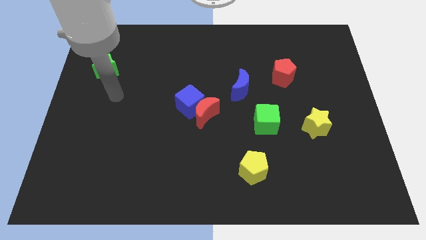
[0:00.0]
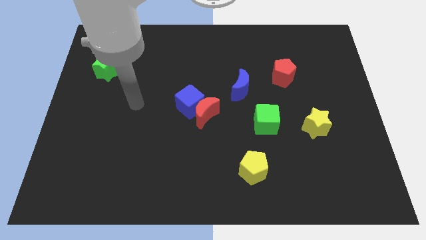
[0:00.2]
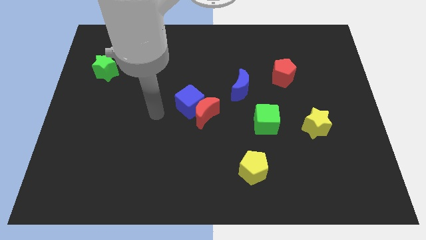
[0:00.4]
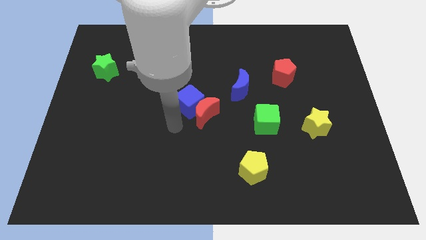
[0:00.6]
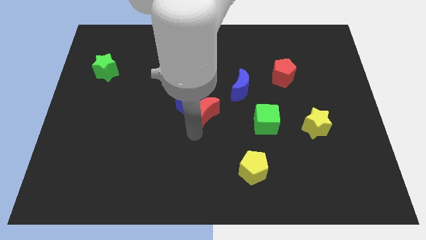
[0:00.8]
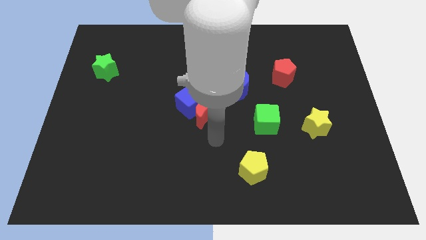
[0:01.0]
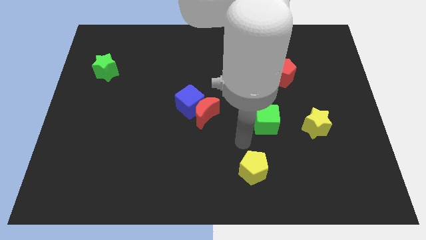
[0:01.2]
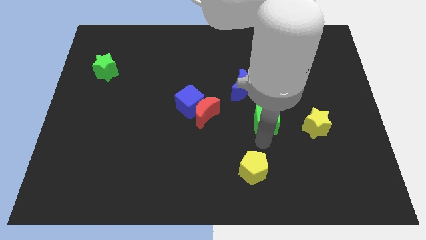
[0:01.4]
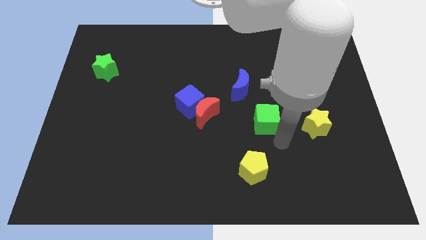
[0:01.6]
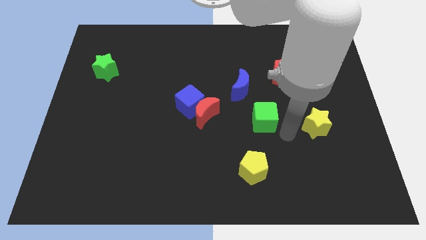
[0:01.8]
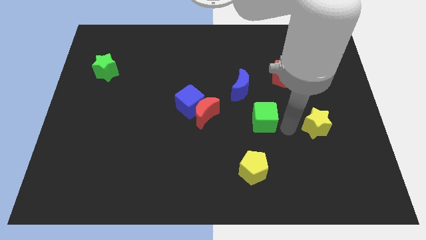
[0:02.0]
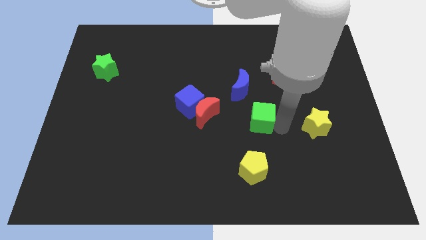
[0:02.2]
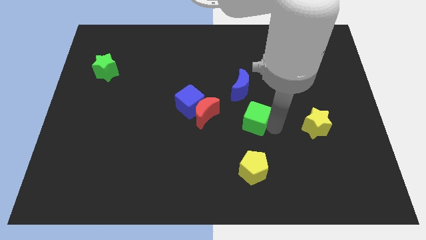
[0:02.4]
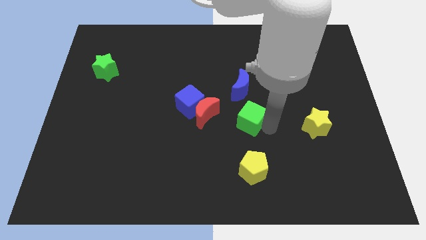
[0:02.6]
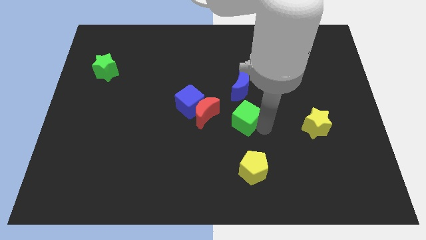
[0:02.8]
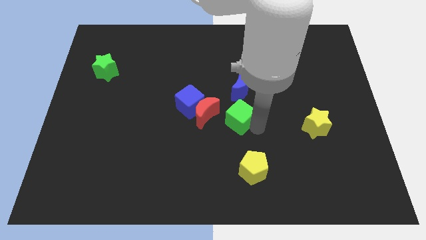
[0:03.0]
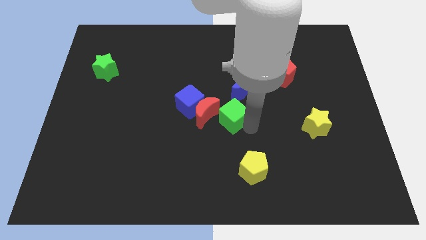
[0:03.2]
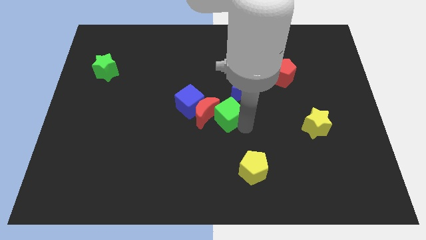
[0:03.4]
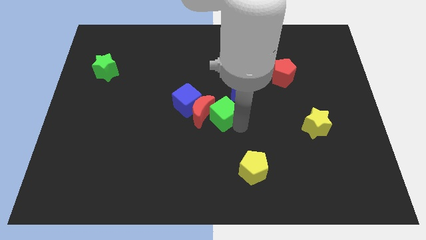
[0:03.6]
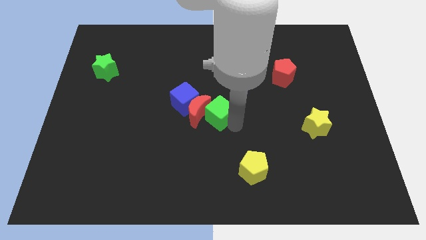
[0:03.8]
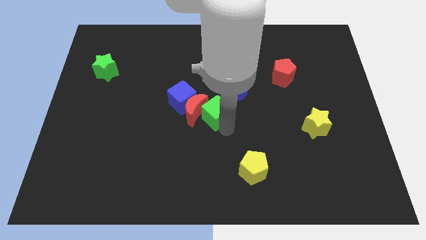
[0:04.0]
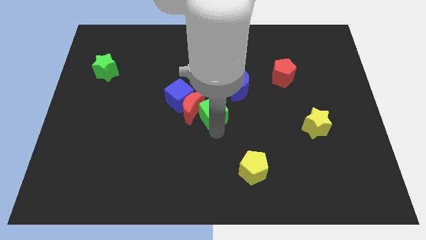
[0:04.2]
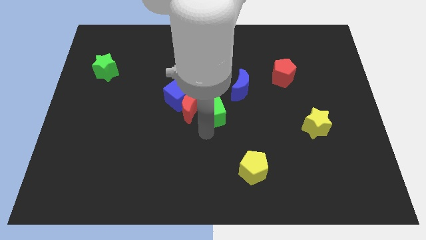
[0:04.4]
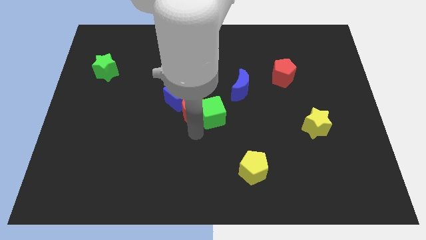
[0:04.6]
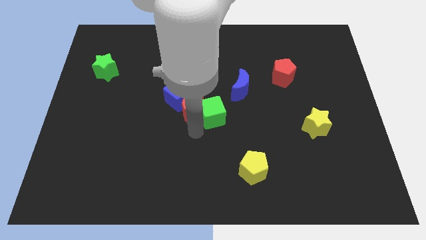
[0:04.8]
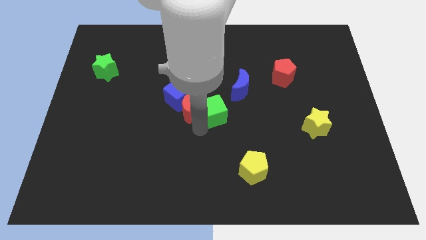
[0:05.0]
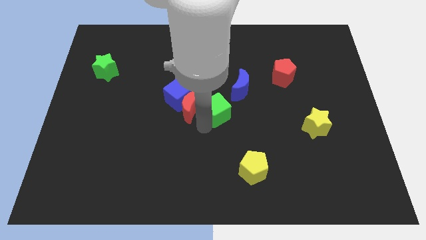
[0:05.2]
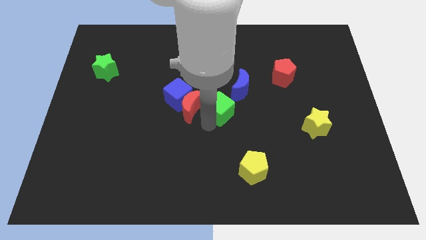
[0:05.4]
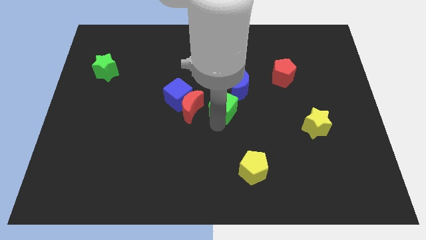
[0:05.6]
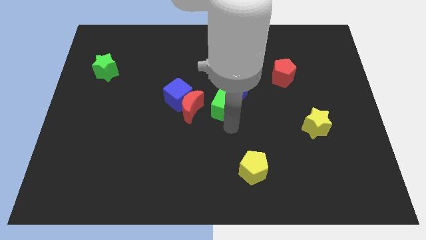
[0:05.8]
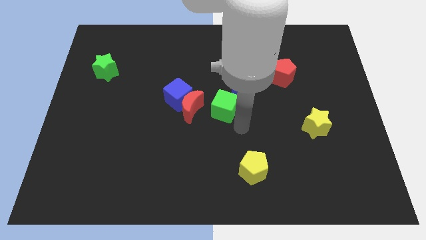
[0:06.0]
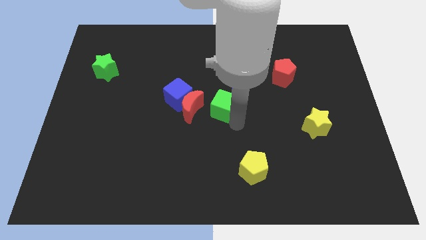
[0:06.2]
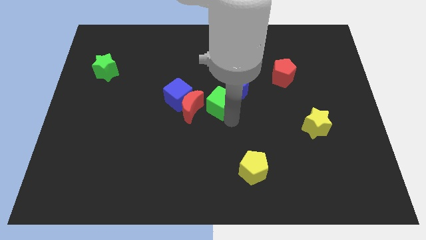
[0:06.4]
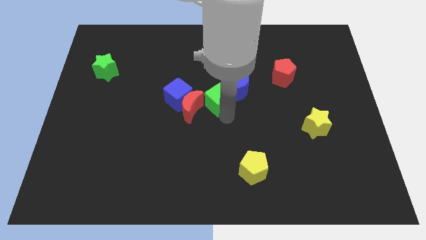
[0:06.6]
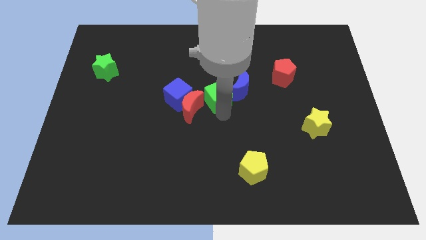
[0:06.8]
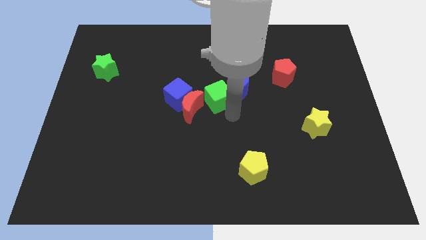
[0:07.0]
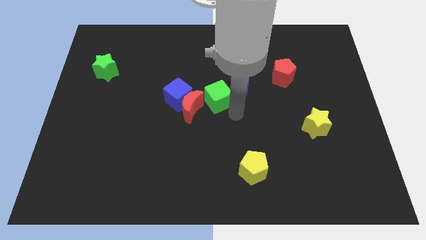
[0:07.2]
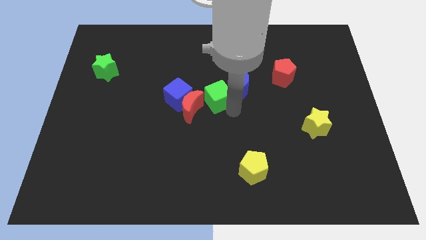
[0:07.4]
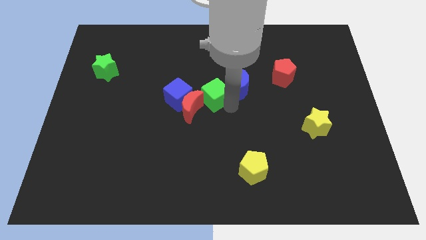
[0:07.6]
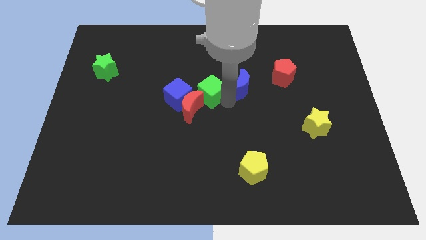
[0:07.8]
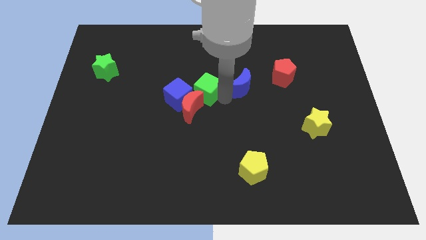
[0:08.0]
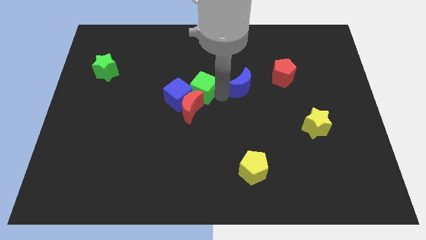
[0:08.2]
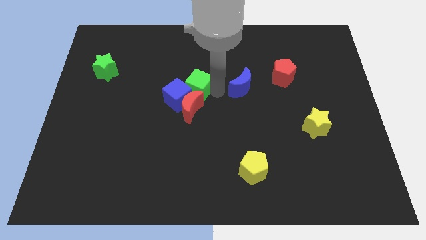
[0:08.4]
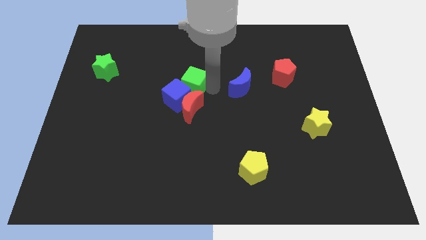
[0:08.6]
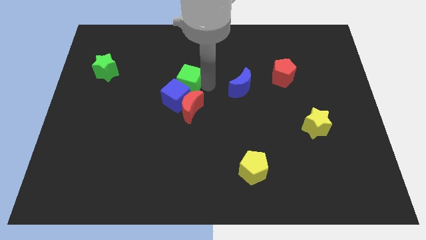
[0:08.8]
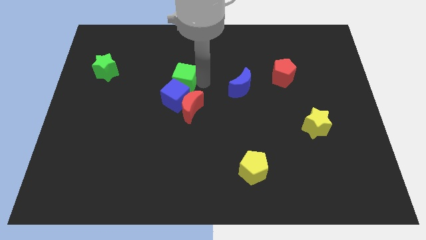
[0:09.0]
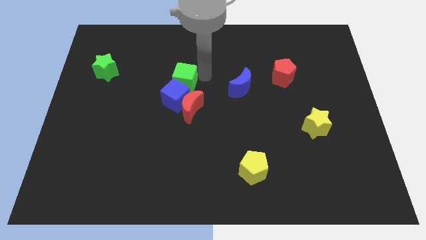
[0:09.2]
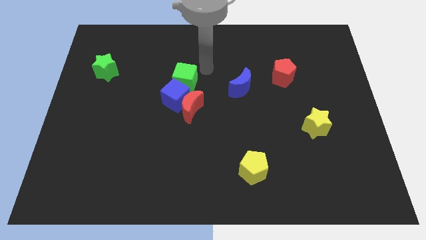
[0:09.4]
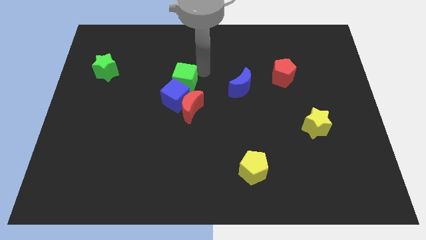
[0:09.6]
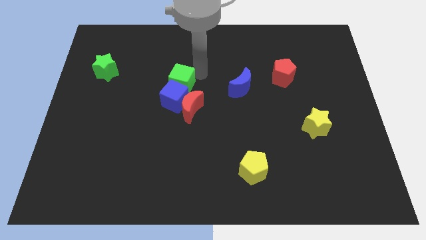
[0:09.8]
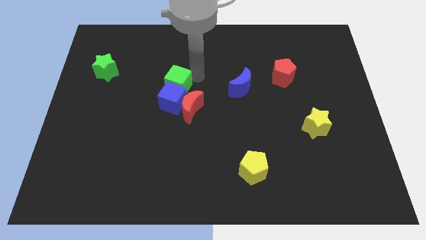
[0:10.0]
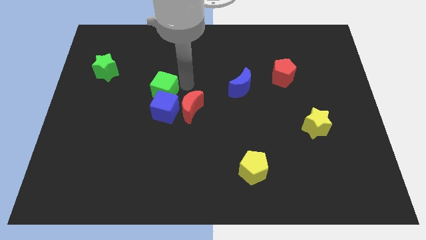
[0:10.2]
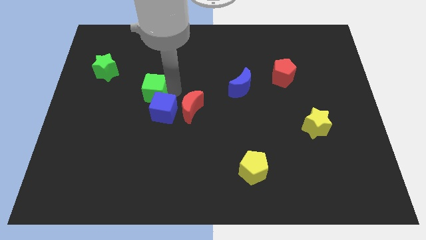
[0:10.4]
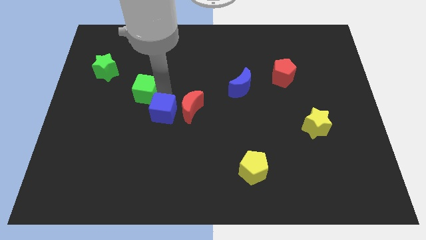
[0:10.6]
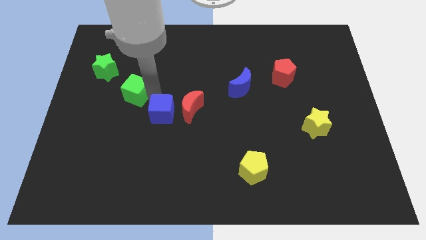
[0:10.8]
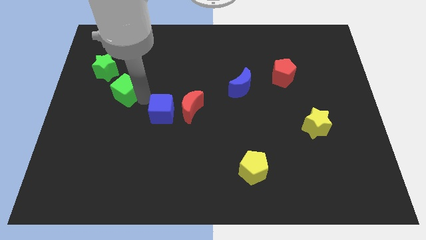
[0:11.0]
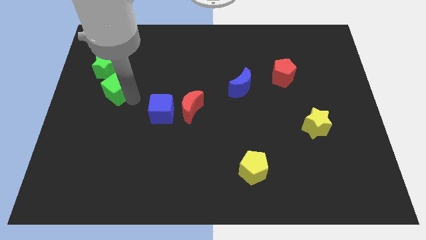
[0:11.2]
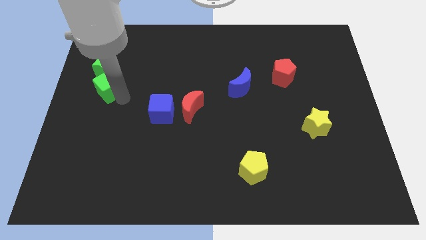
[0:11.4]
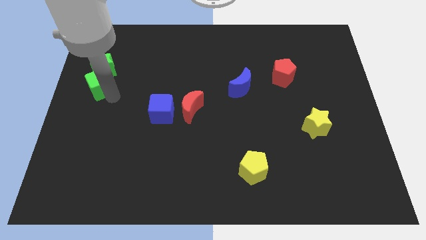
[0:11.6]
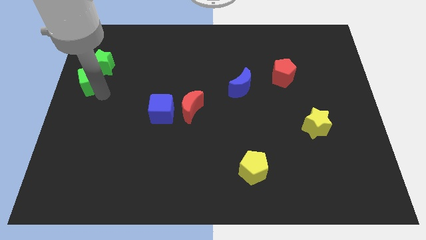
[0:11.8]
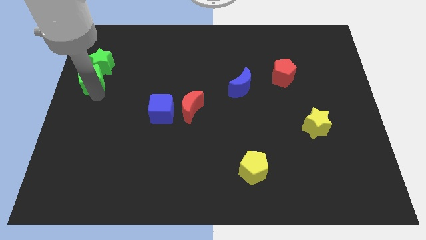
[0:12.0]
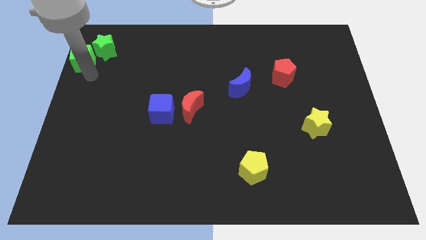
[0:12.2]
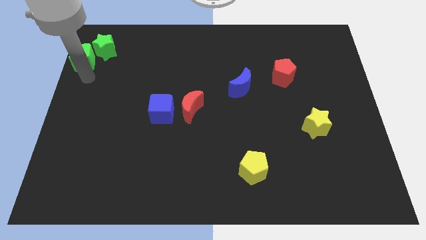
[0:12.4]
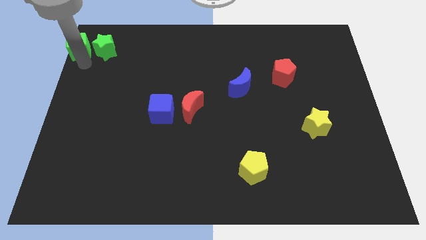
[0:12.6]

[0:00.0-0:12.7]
move the green cube to the top left
